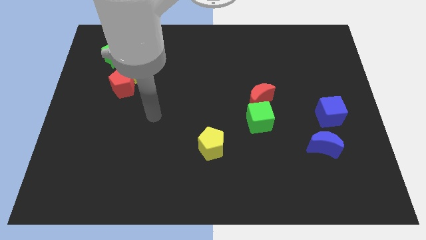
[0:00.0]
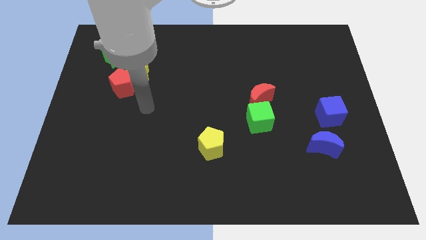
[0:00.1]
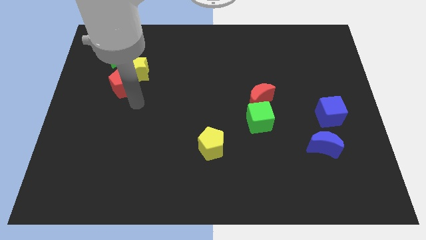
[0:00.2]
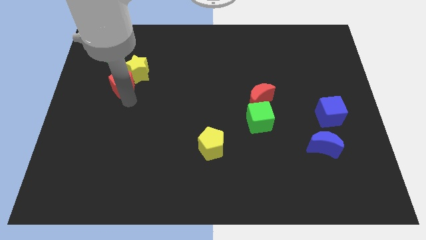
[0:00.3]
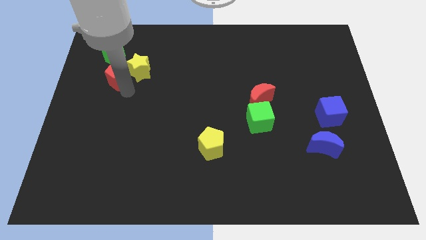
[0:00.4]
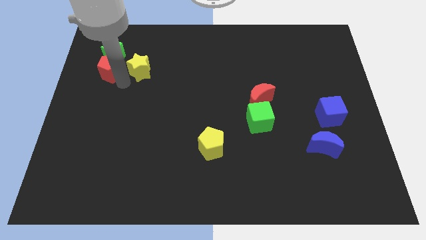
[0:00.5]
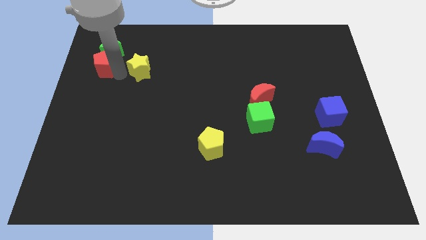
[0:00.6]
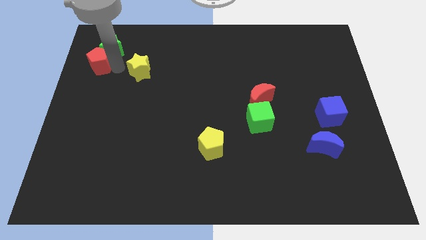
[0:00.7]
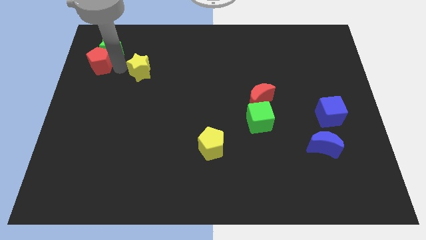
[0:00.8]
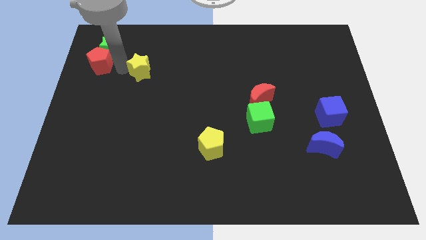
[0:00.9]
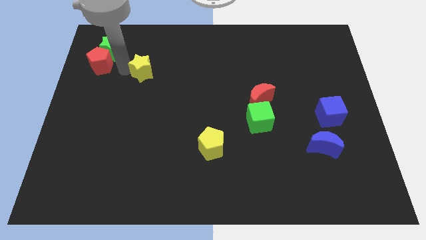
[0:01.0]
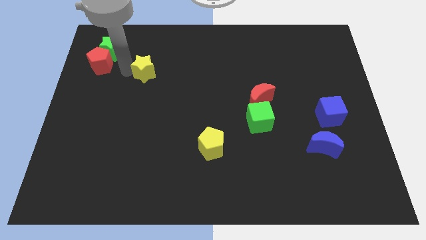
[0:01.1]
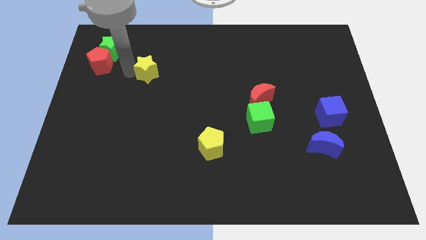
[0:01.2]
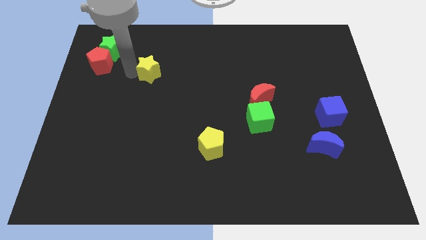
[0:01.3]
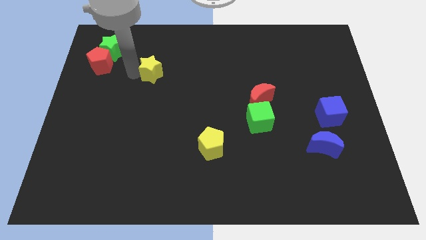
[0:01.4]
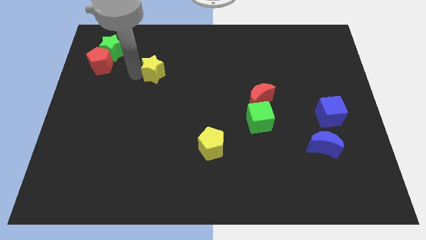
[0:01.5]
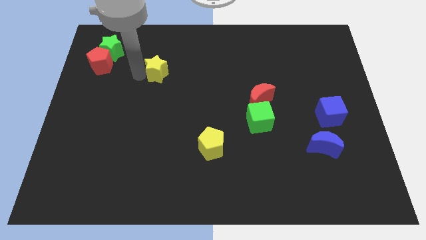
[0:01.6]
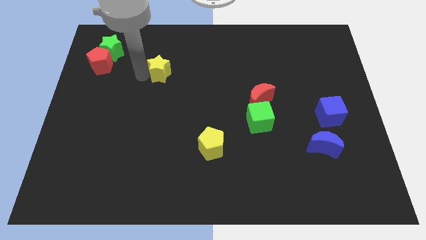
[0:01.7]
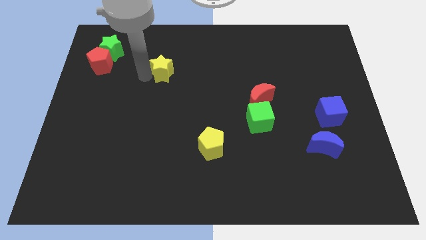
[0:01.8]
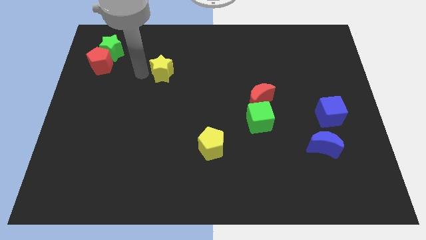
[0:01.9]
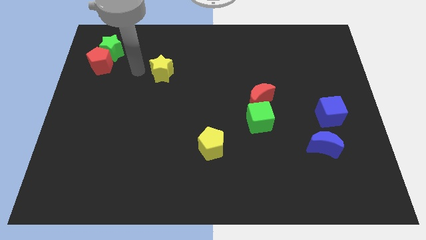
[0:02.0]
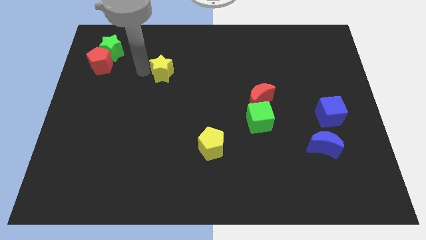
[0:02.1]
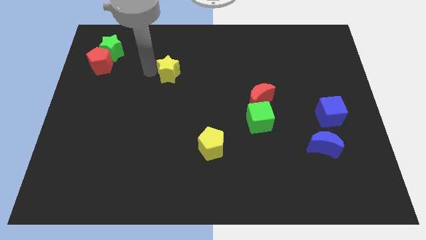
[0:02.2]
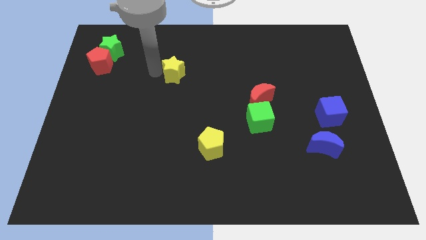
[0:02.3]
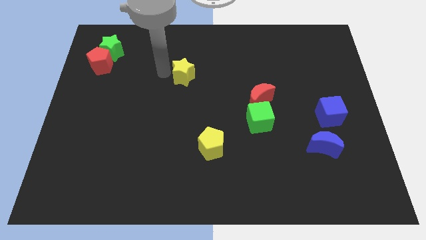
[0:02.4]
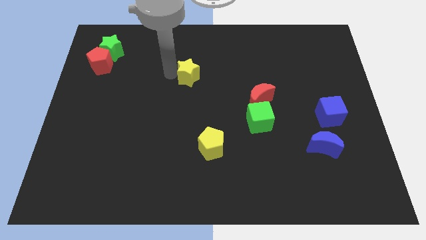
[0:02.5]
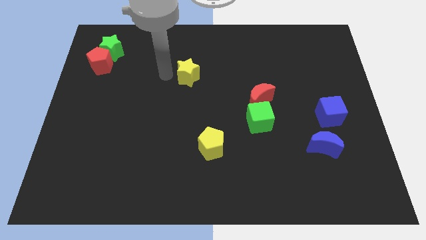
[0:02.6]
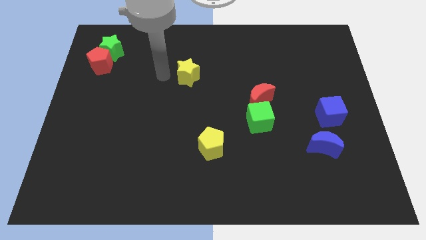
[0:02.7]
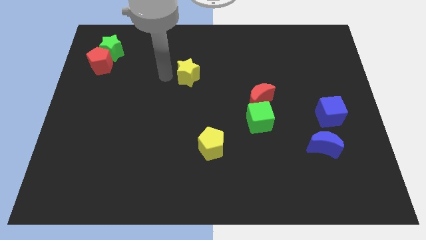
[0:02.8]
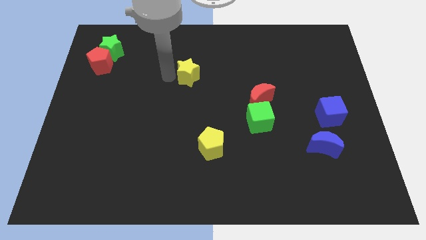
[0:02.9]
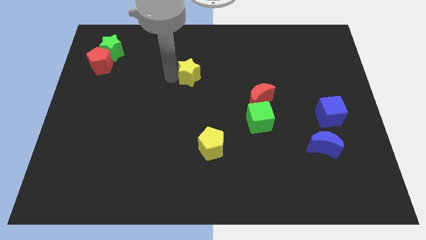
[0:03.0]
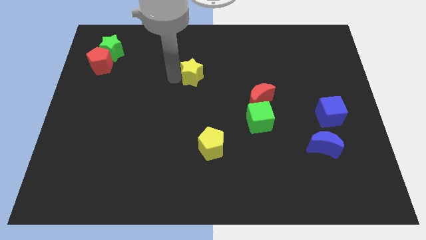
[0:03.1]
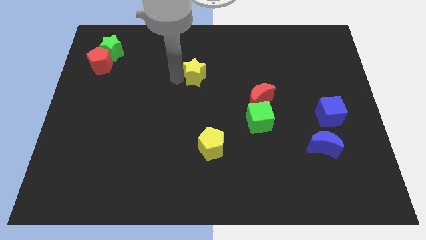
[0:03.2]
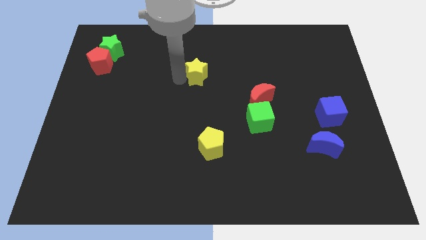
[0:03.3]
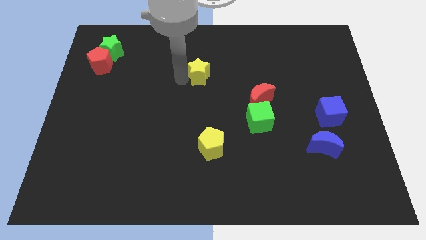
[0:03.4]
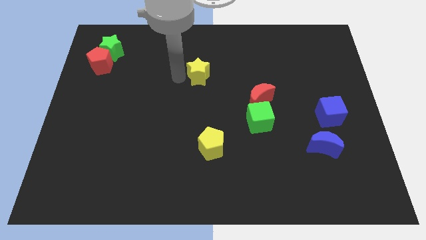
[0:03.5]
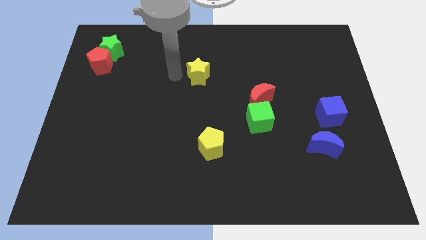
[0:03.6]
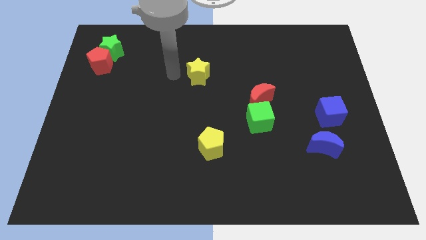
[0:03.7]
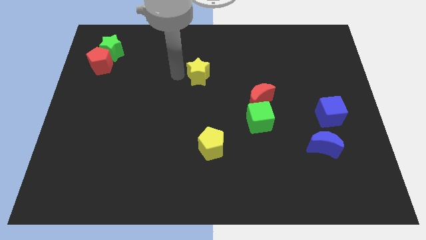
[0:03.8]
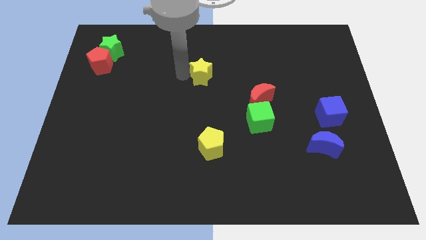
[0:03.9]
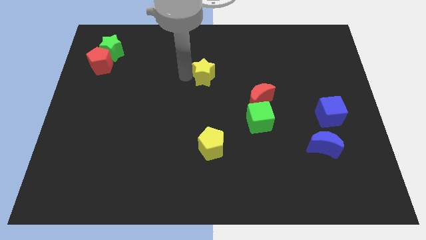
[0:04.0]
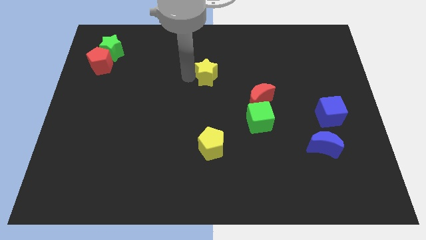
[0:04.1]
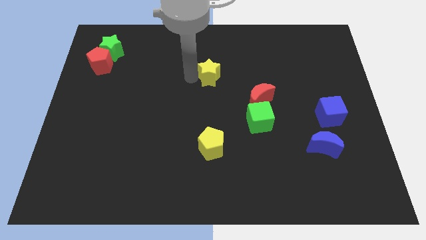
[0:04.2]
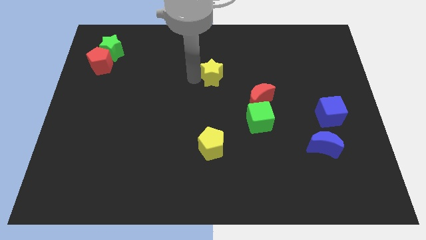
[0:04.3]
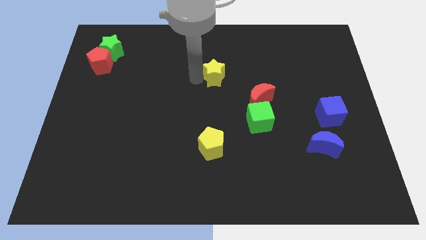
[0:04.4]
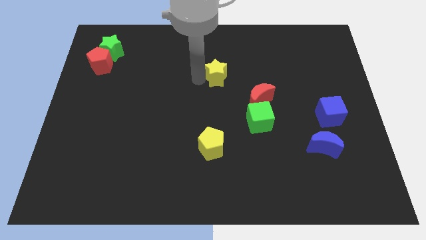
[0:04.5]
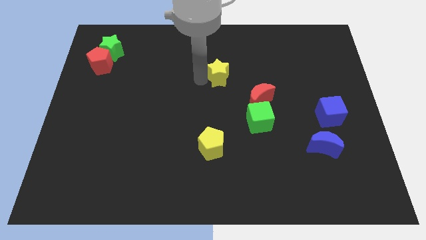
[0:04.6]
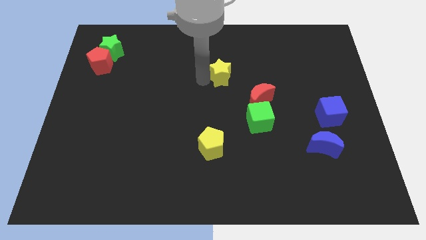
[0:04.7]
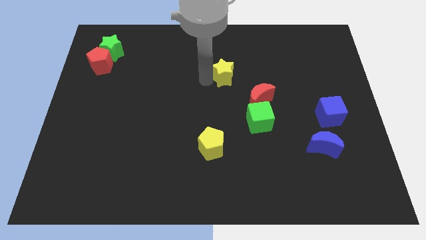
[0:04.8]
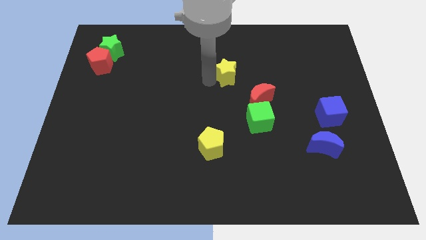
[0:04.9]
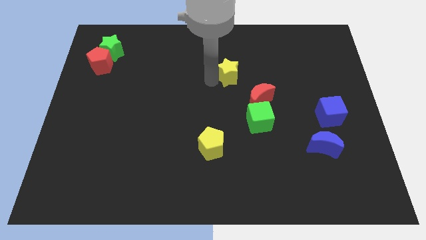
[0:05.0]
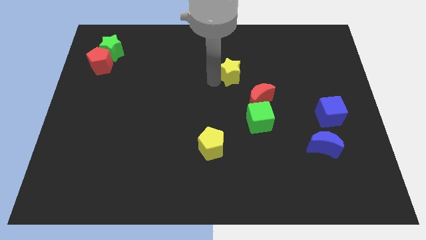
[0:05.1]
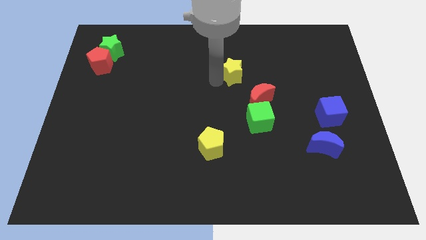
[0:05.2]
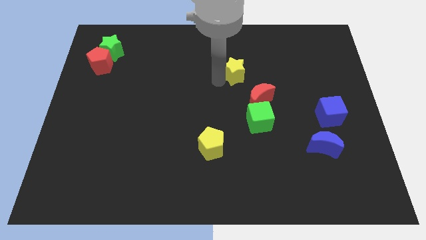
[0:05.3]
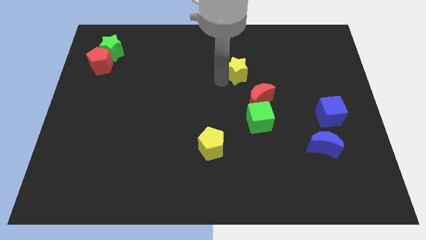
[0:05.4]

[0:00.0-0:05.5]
move the yellow star above the red moon

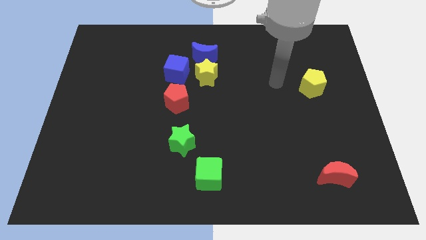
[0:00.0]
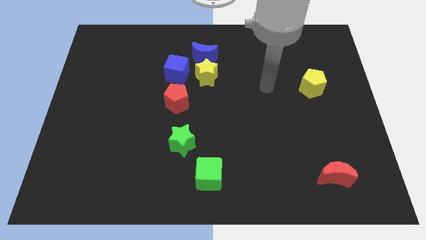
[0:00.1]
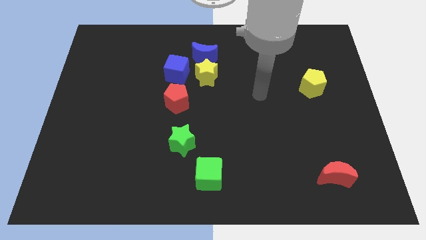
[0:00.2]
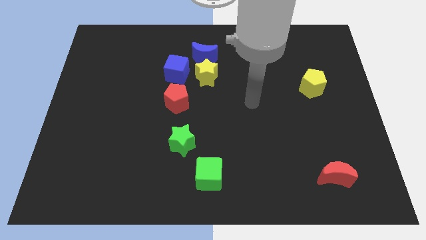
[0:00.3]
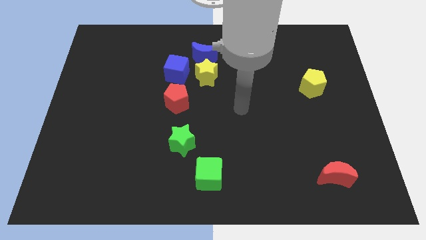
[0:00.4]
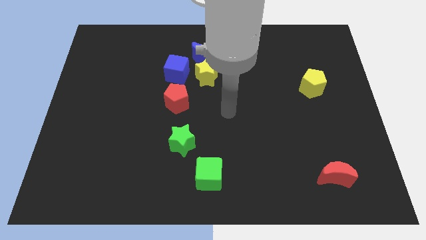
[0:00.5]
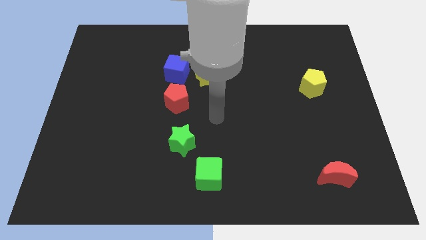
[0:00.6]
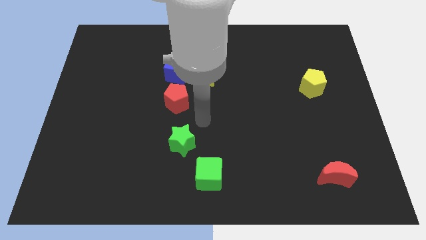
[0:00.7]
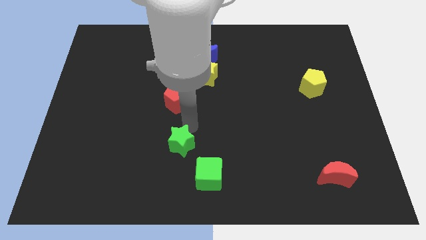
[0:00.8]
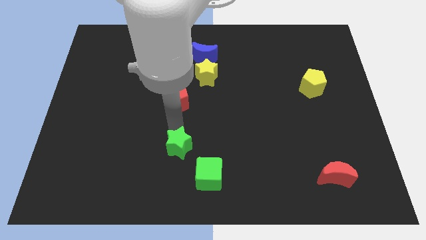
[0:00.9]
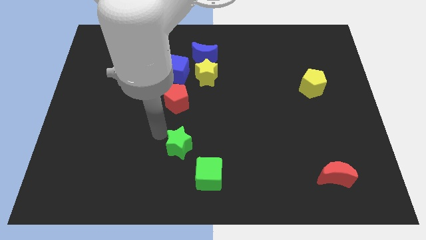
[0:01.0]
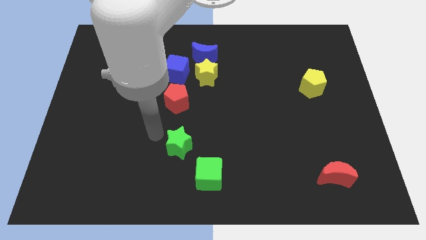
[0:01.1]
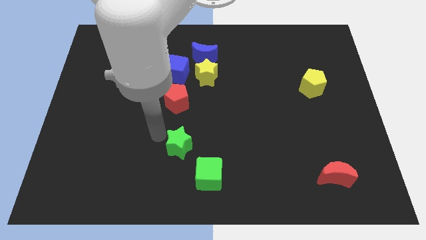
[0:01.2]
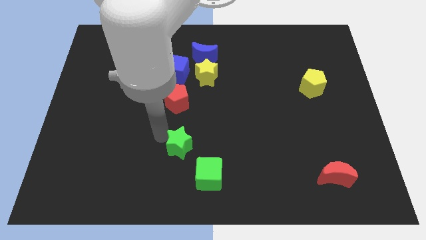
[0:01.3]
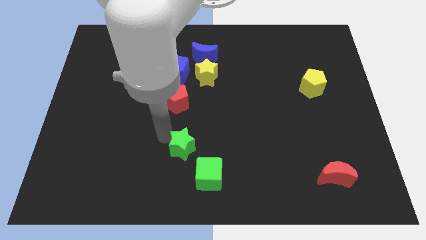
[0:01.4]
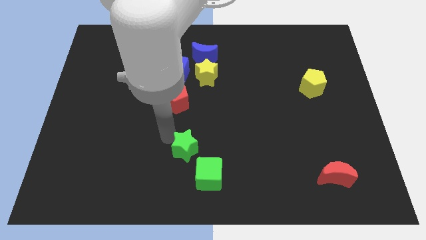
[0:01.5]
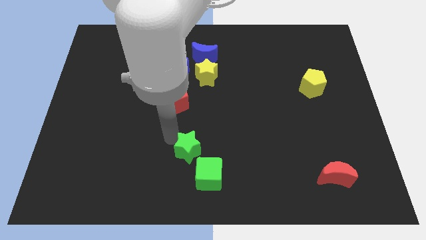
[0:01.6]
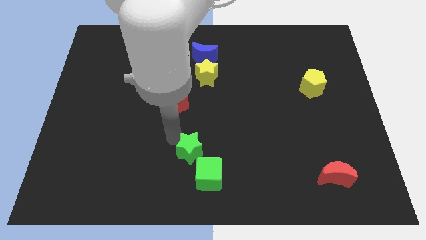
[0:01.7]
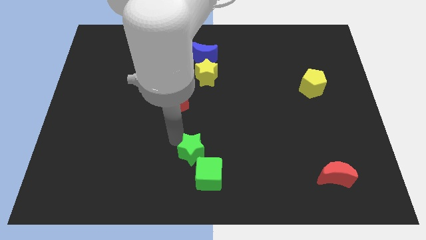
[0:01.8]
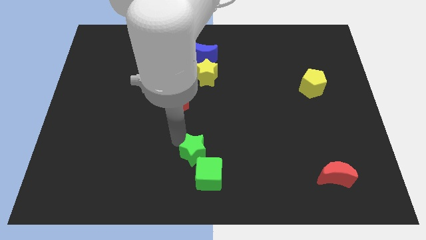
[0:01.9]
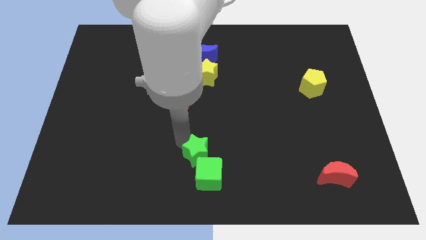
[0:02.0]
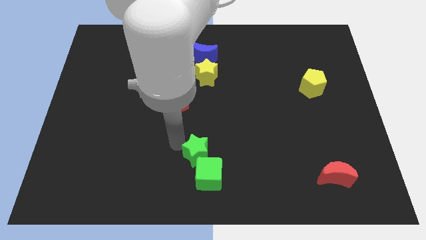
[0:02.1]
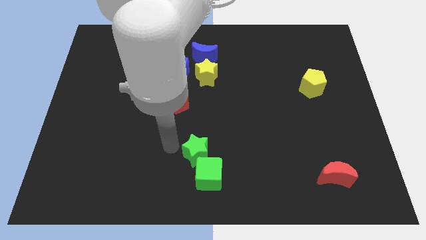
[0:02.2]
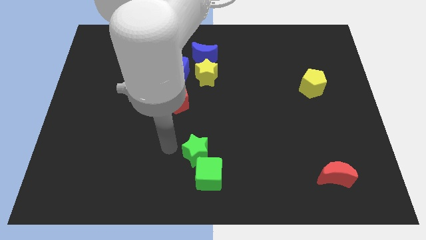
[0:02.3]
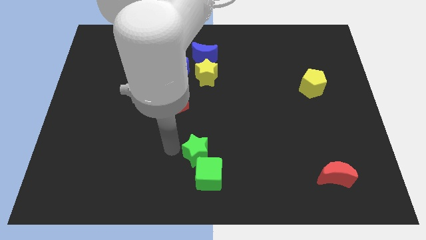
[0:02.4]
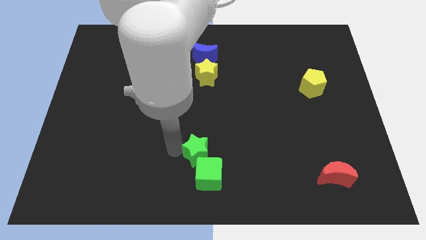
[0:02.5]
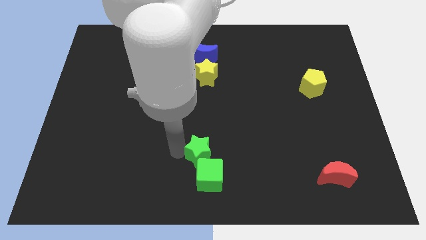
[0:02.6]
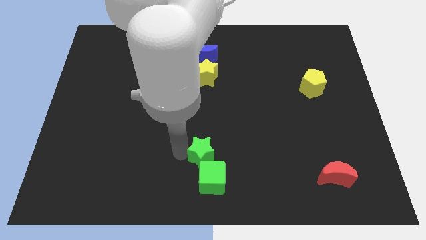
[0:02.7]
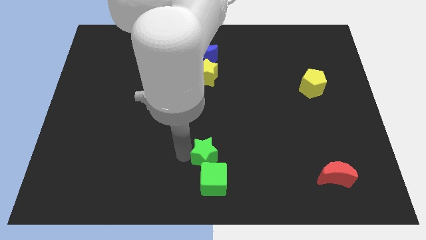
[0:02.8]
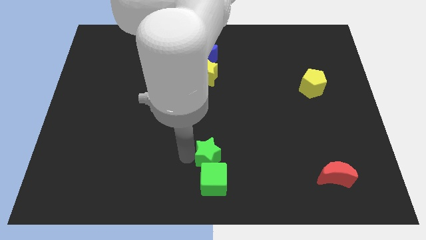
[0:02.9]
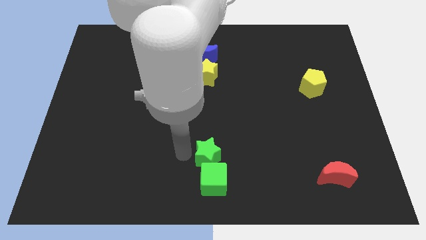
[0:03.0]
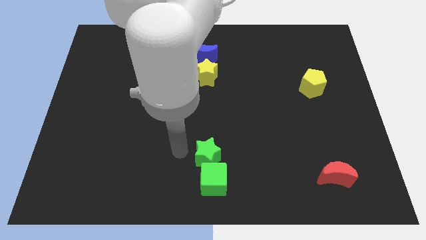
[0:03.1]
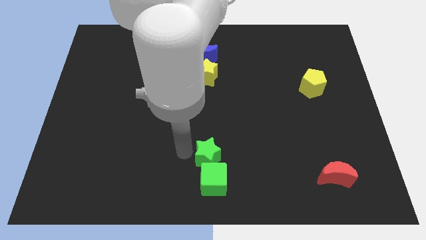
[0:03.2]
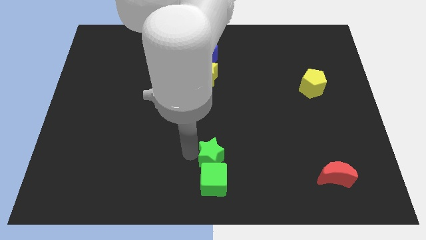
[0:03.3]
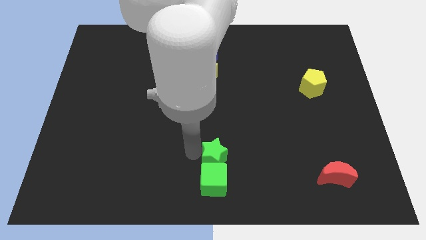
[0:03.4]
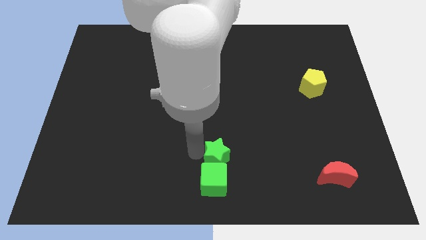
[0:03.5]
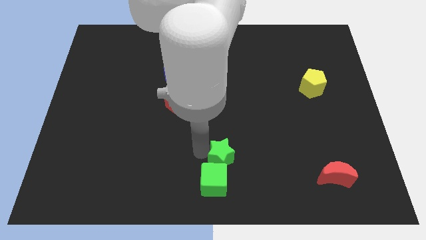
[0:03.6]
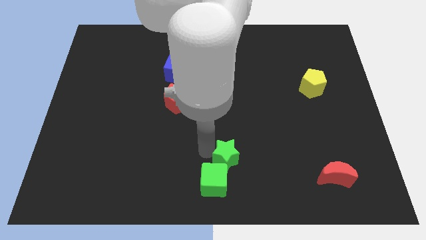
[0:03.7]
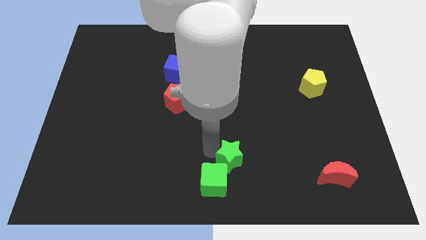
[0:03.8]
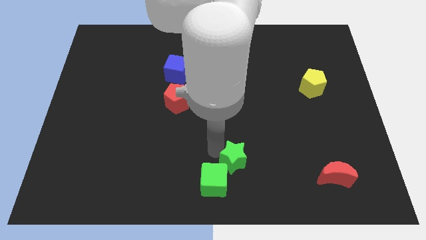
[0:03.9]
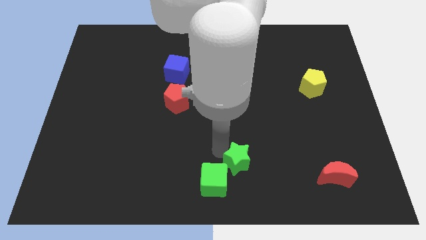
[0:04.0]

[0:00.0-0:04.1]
move the green star to the right side of the green cube
